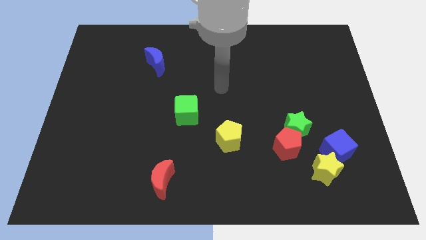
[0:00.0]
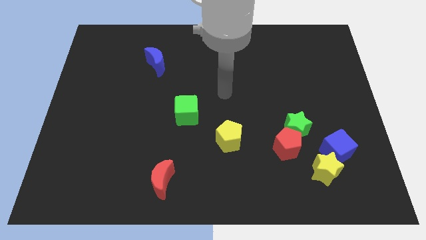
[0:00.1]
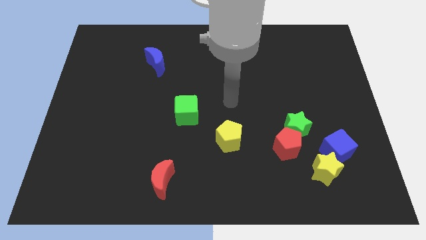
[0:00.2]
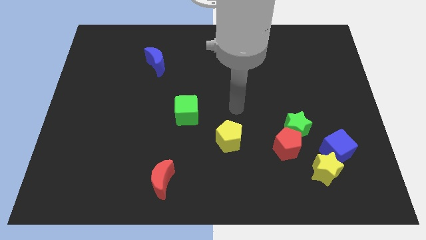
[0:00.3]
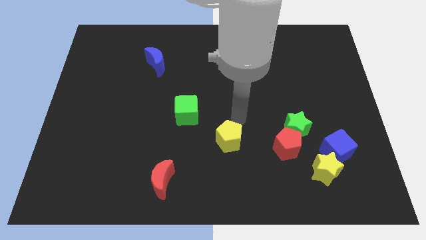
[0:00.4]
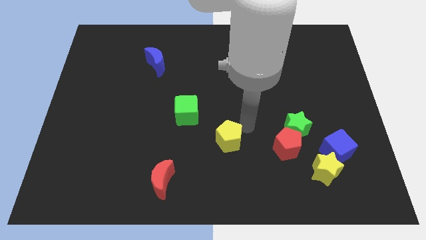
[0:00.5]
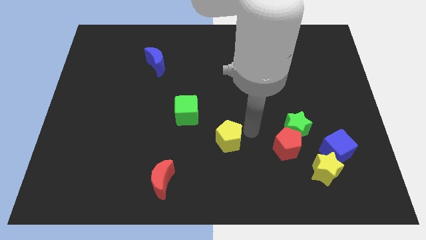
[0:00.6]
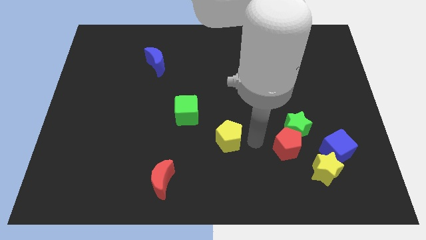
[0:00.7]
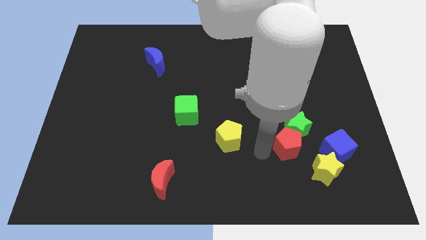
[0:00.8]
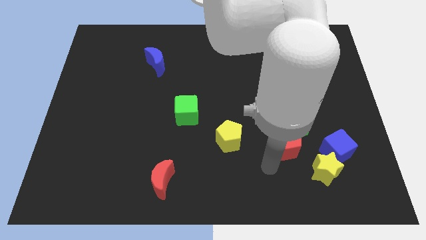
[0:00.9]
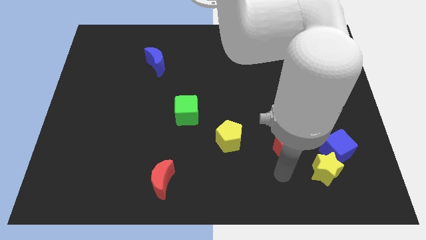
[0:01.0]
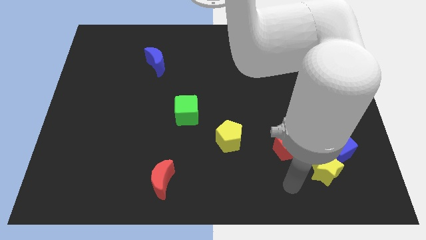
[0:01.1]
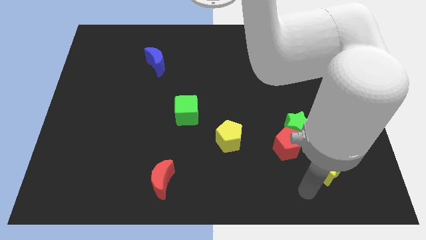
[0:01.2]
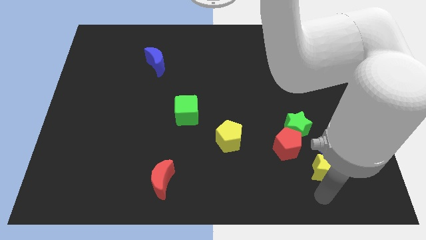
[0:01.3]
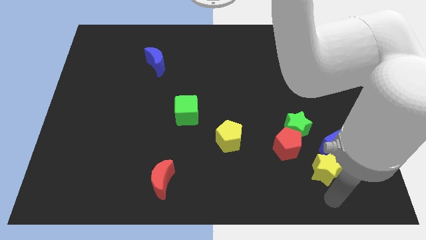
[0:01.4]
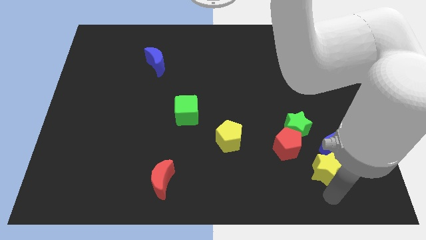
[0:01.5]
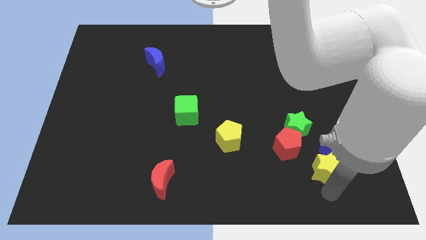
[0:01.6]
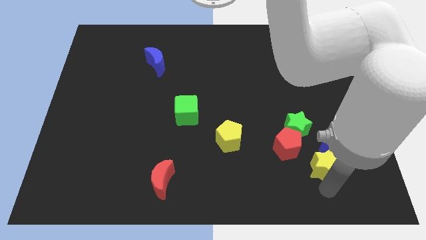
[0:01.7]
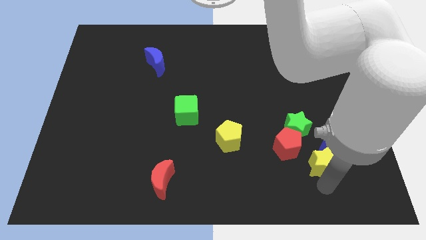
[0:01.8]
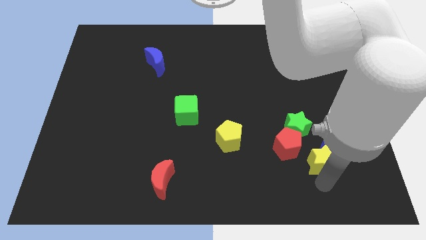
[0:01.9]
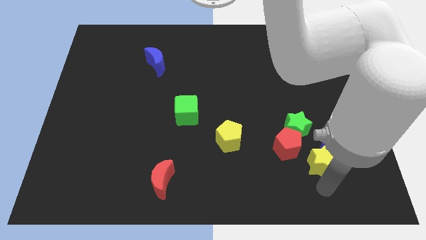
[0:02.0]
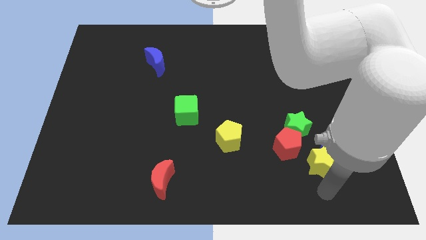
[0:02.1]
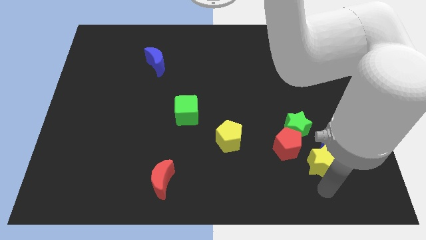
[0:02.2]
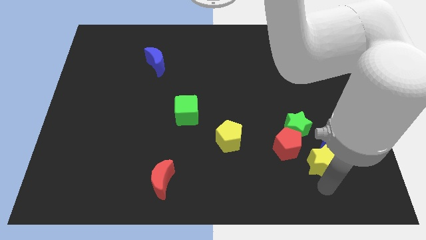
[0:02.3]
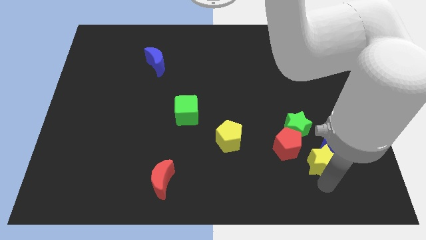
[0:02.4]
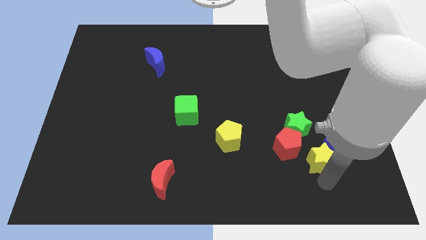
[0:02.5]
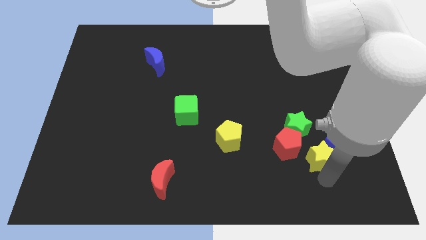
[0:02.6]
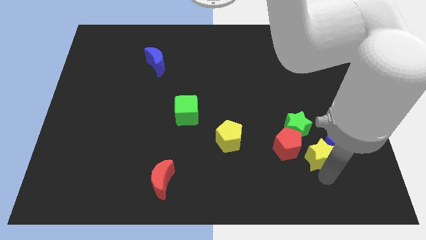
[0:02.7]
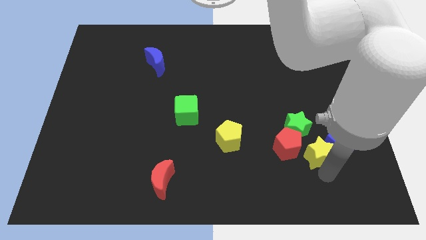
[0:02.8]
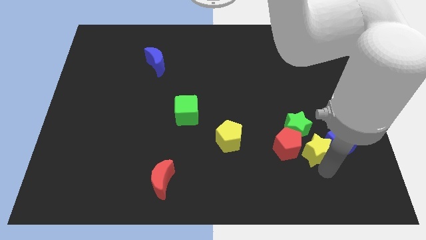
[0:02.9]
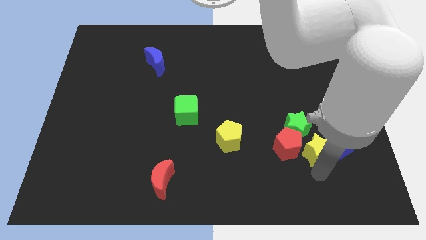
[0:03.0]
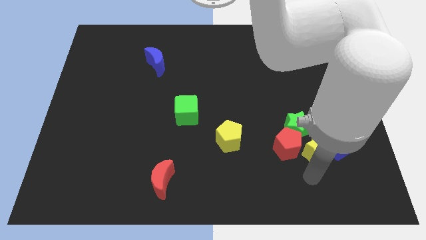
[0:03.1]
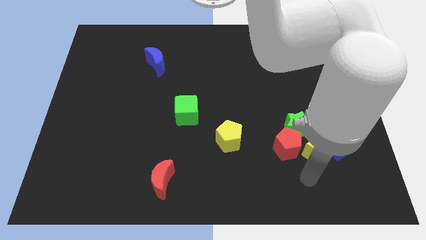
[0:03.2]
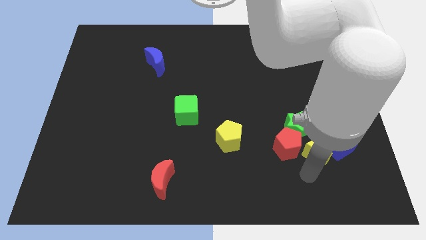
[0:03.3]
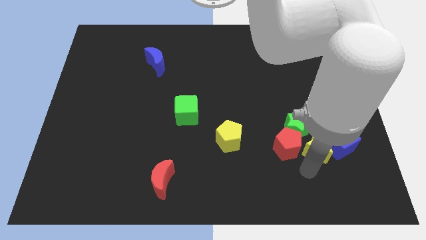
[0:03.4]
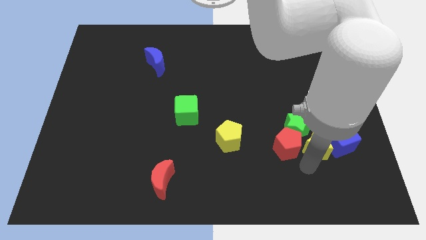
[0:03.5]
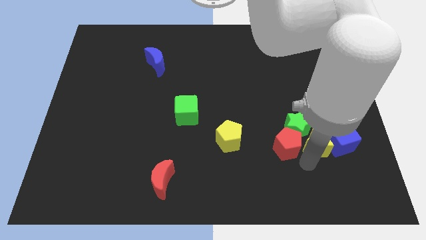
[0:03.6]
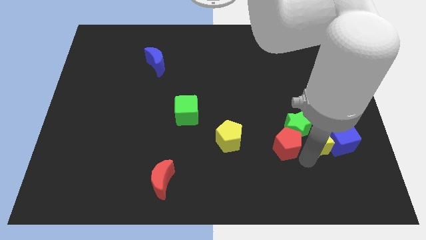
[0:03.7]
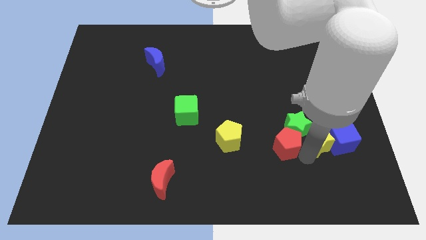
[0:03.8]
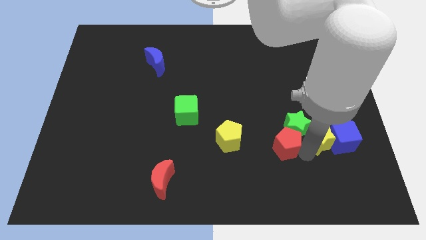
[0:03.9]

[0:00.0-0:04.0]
slightly move the yellow star up

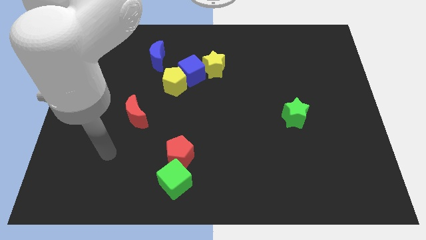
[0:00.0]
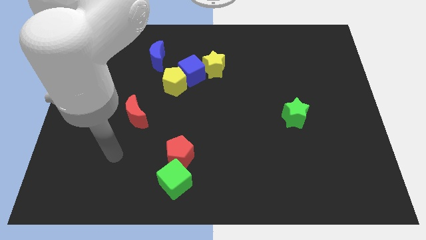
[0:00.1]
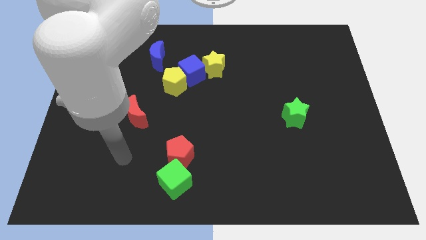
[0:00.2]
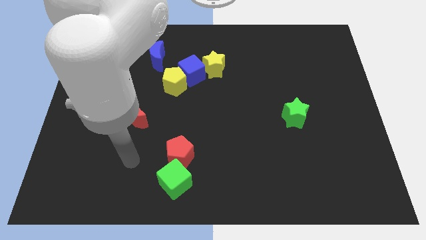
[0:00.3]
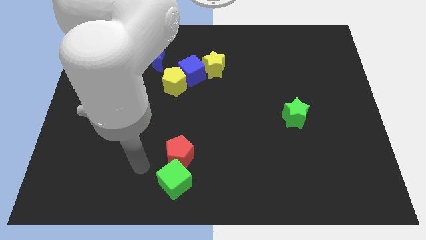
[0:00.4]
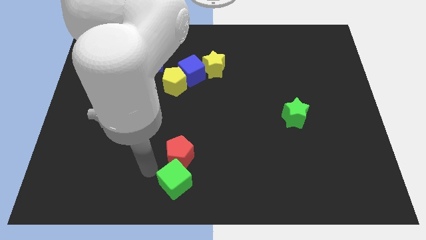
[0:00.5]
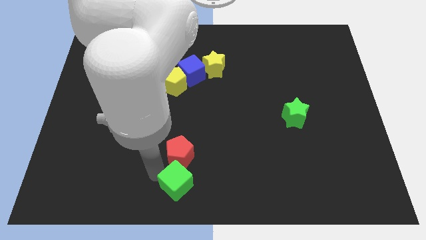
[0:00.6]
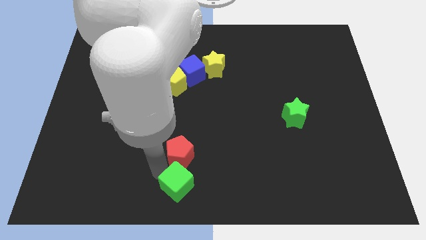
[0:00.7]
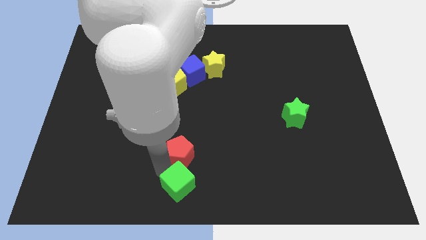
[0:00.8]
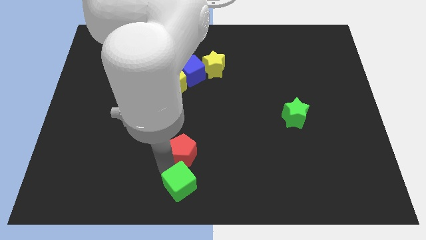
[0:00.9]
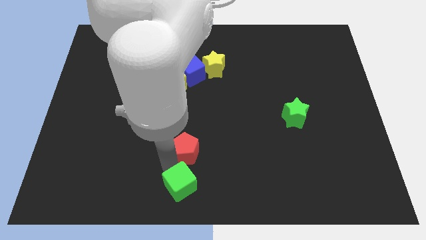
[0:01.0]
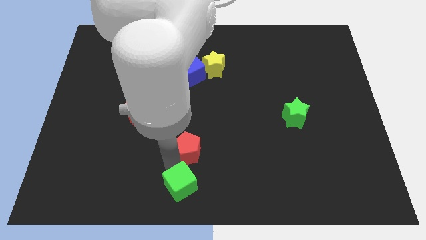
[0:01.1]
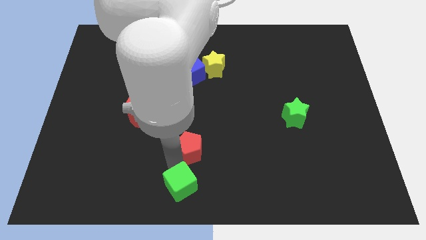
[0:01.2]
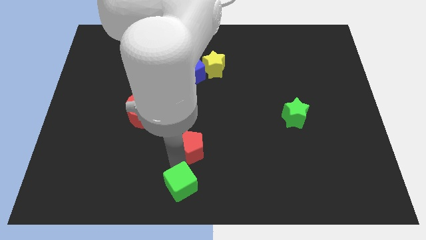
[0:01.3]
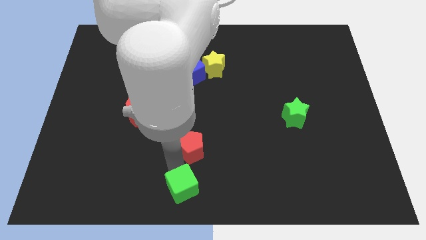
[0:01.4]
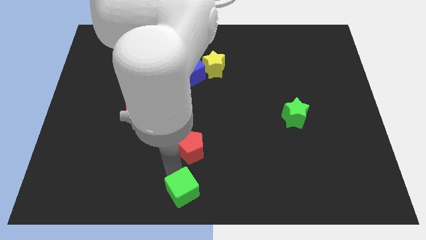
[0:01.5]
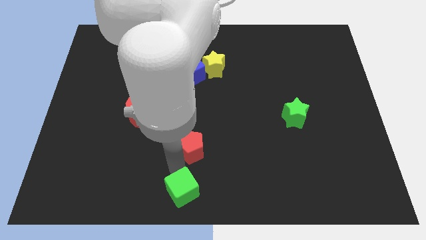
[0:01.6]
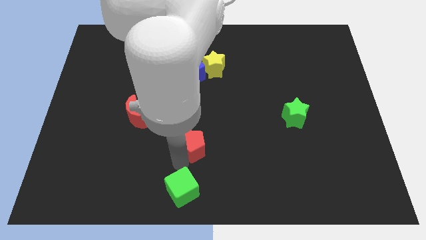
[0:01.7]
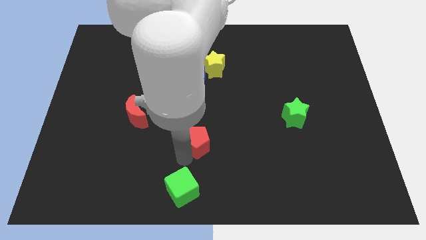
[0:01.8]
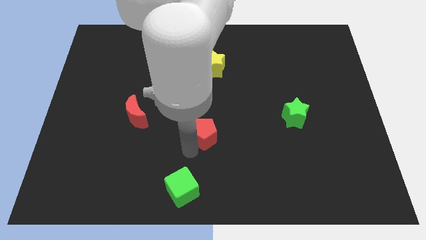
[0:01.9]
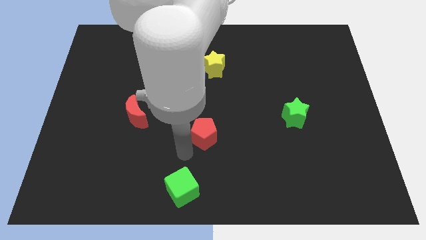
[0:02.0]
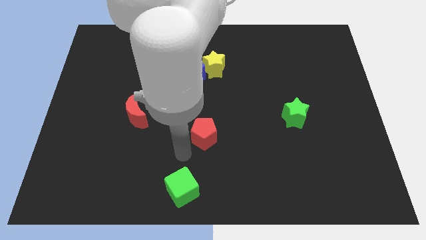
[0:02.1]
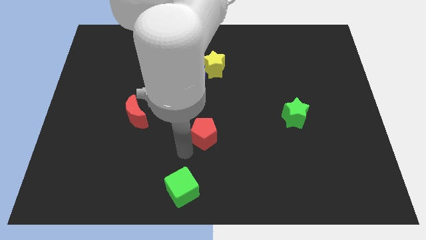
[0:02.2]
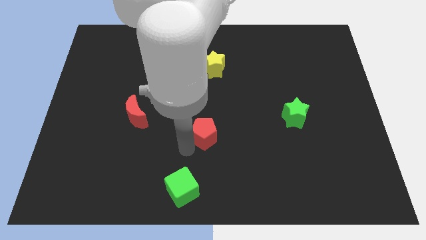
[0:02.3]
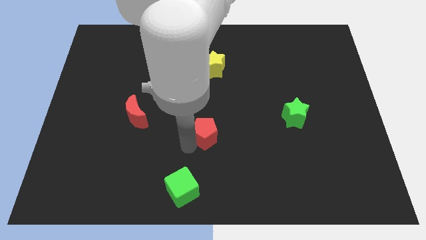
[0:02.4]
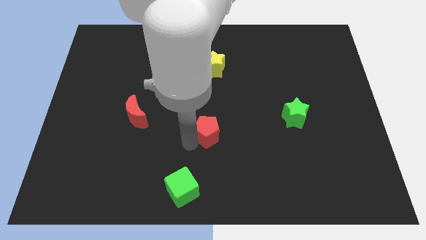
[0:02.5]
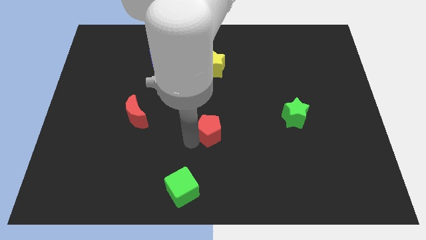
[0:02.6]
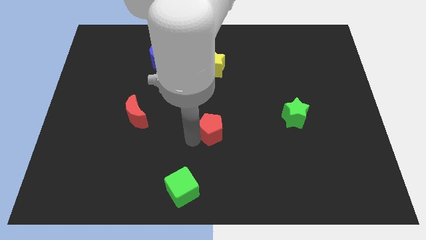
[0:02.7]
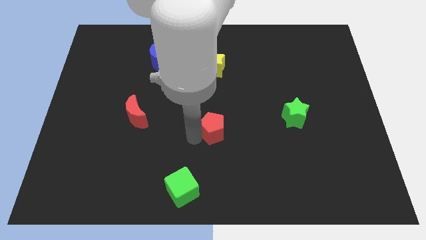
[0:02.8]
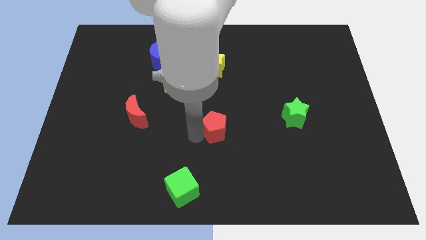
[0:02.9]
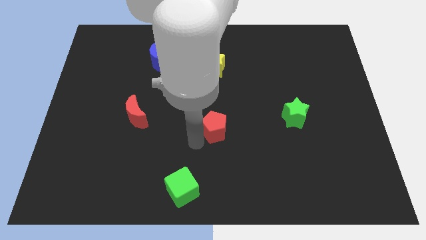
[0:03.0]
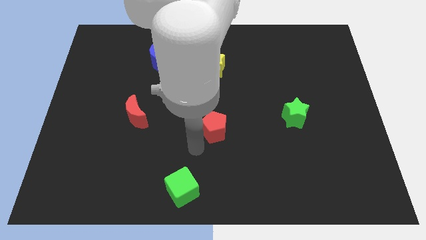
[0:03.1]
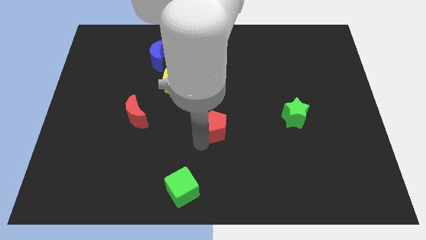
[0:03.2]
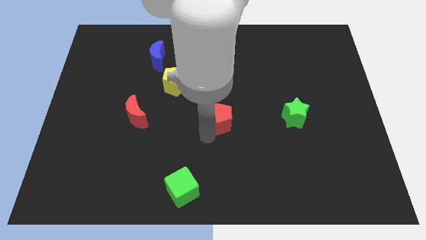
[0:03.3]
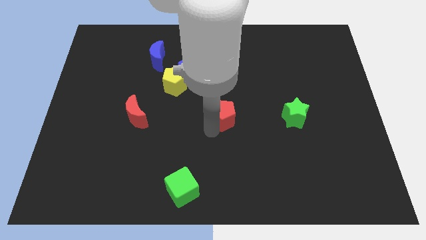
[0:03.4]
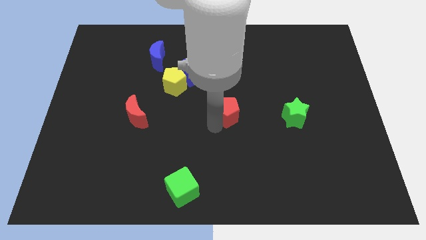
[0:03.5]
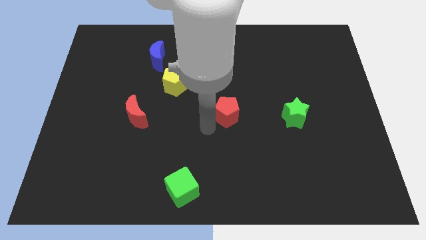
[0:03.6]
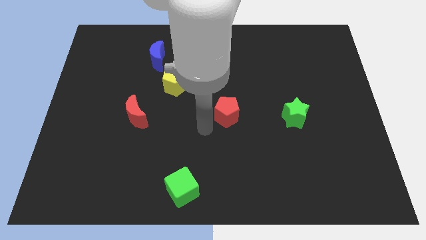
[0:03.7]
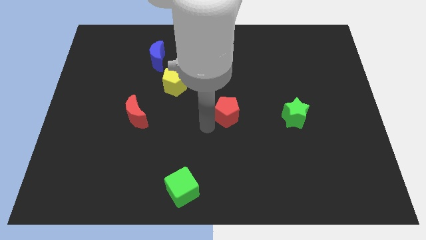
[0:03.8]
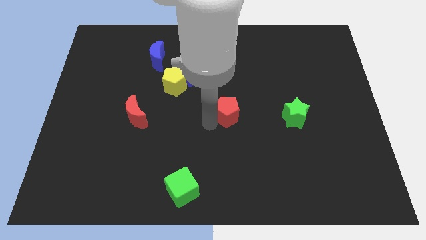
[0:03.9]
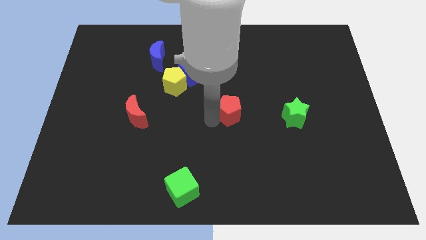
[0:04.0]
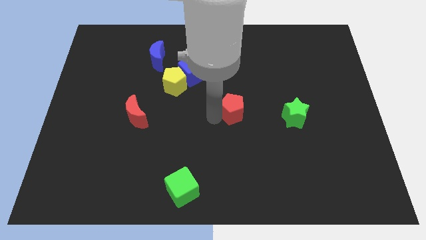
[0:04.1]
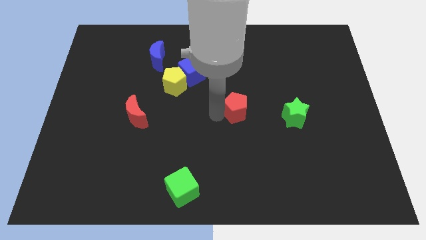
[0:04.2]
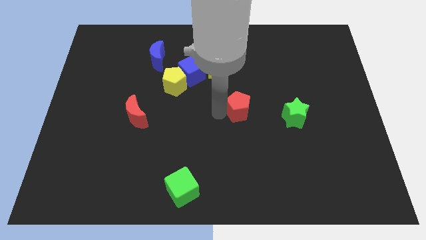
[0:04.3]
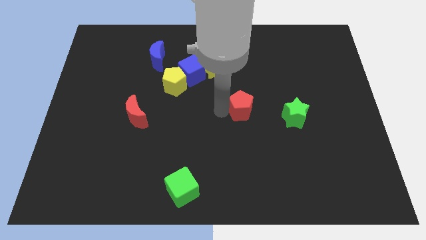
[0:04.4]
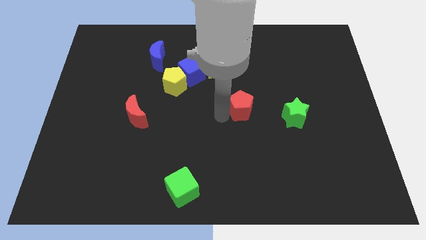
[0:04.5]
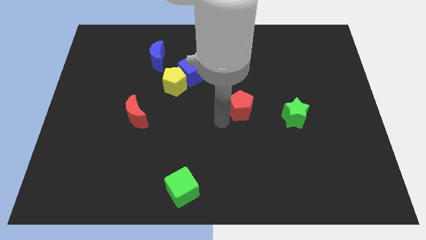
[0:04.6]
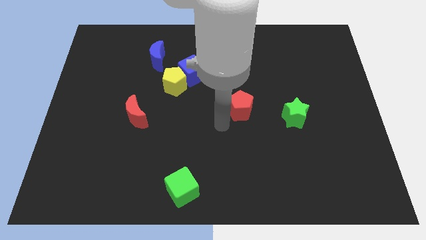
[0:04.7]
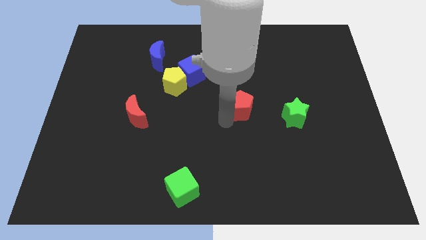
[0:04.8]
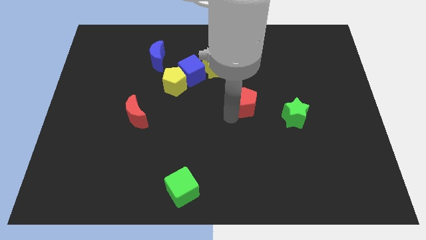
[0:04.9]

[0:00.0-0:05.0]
push the red pentagon upwards and then to the right
